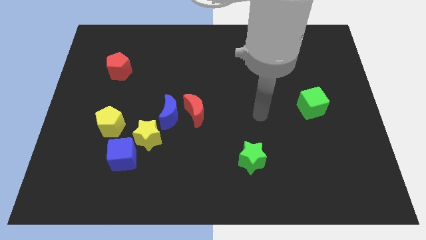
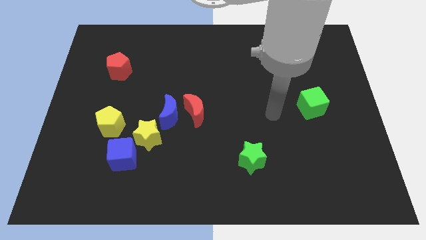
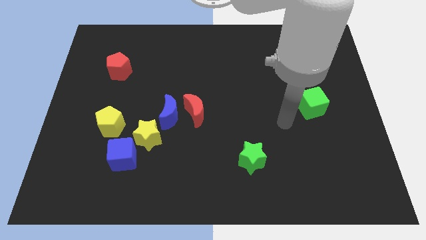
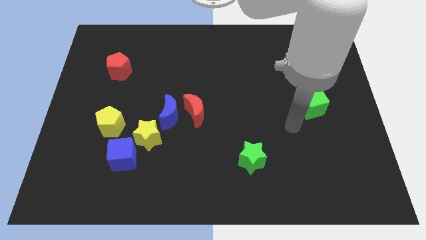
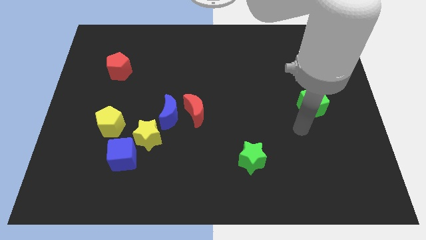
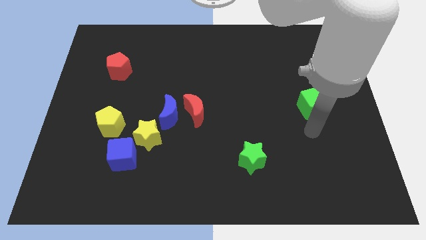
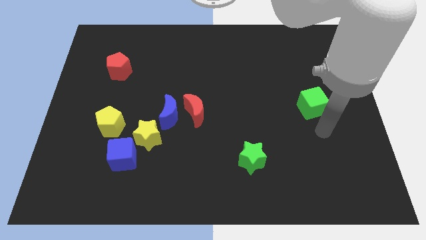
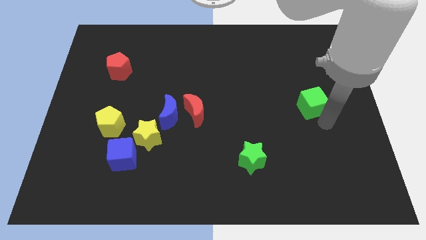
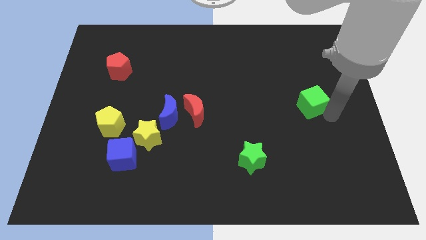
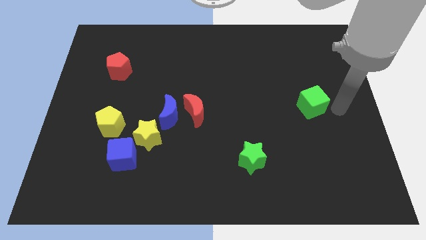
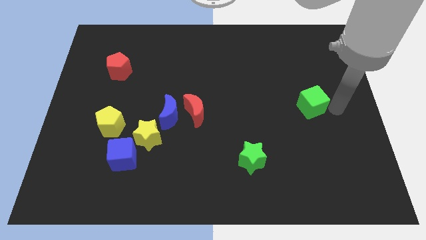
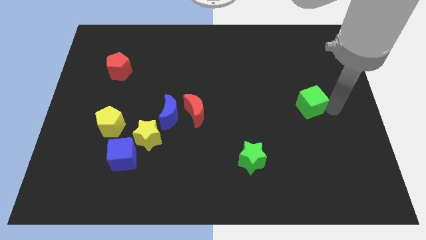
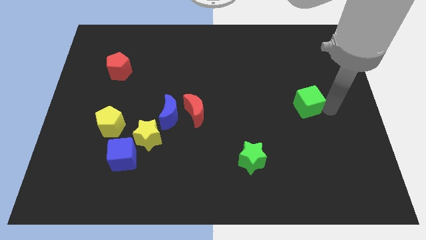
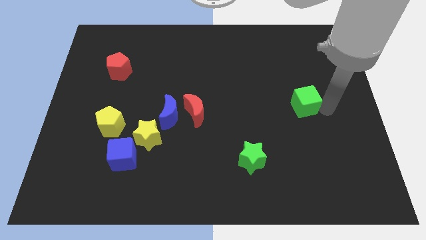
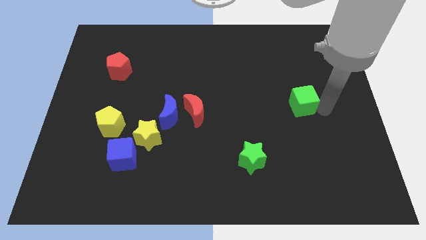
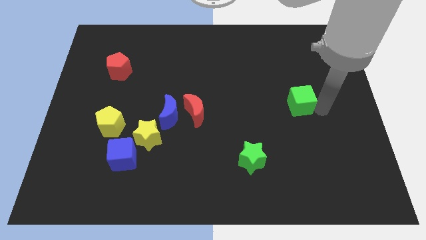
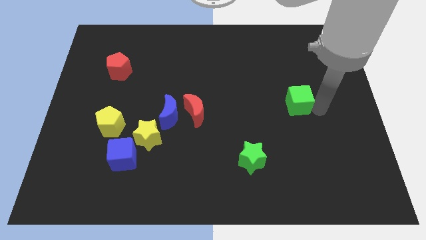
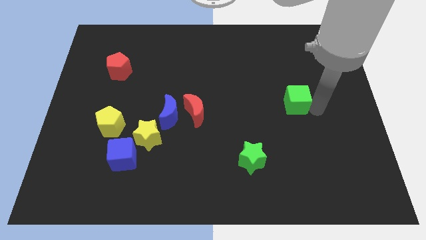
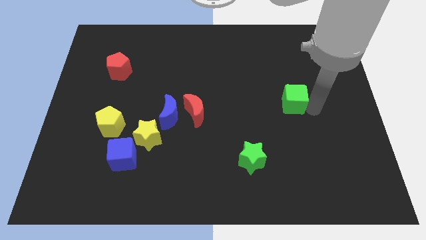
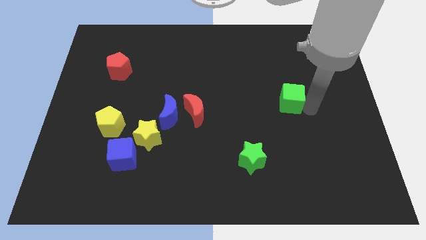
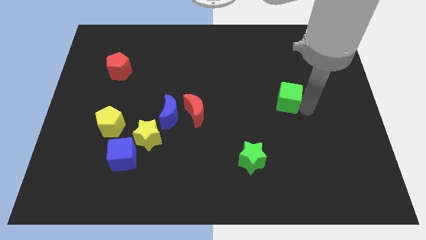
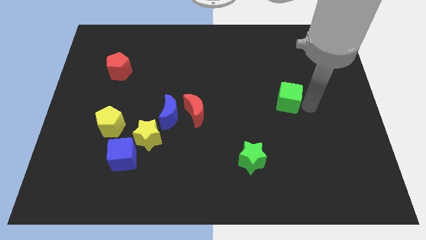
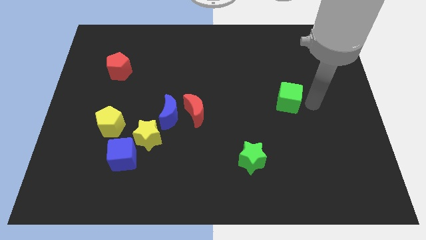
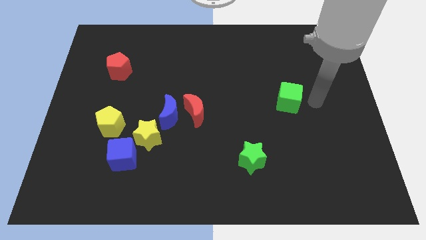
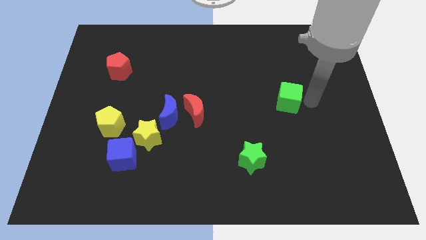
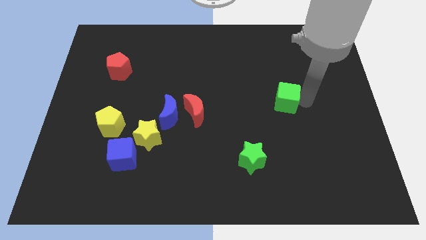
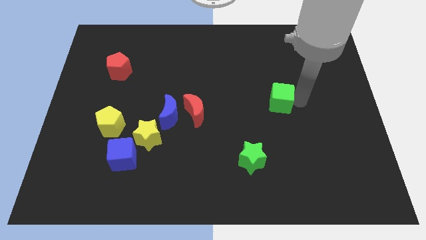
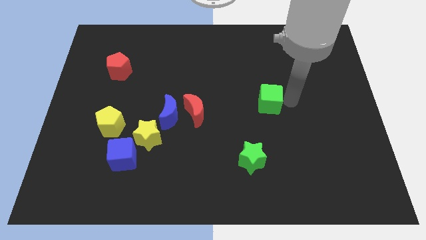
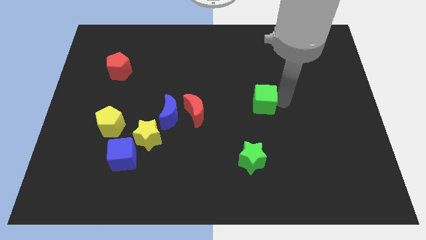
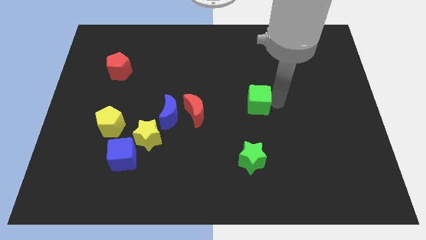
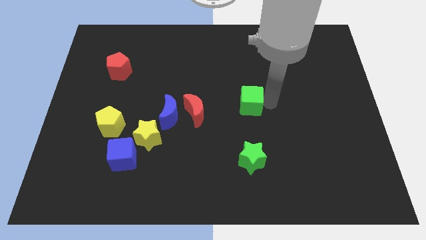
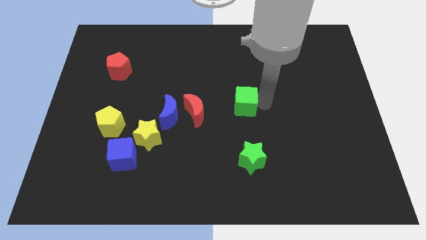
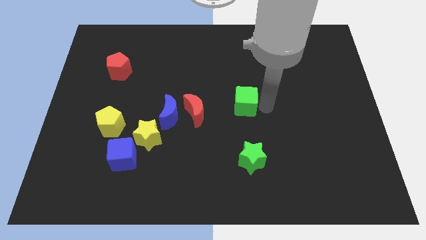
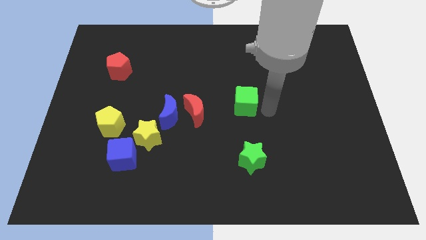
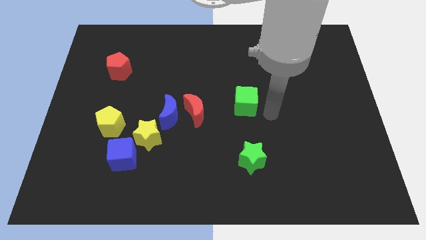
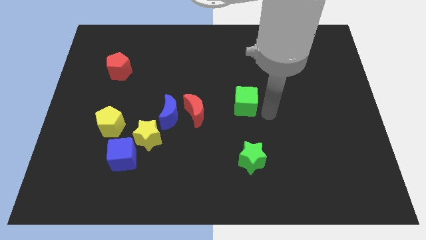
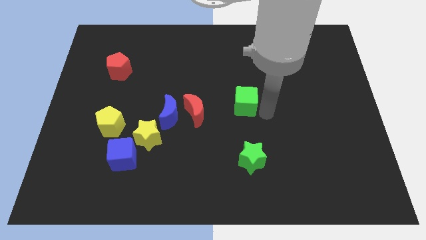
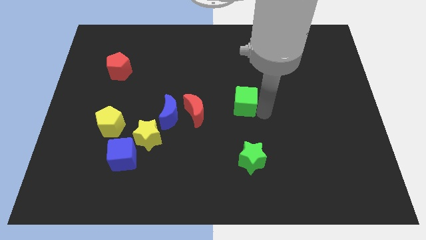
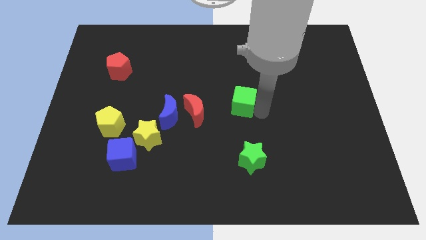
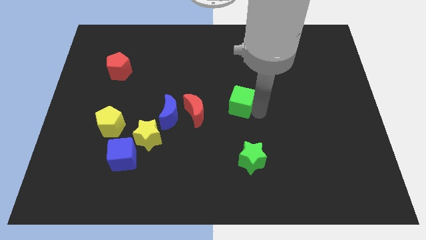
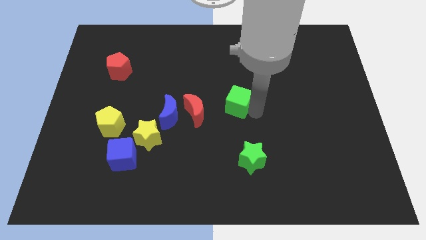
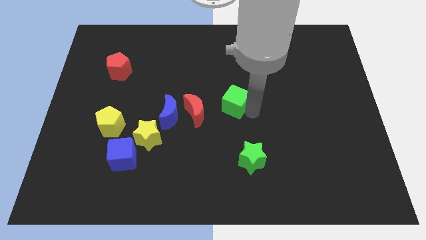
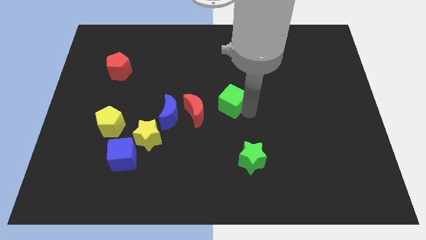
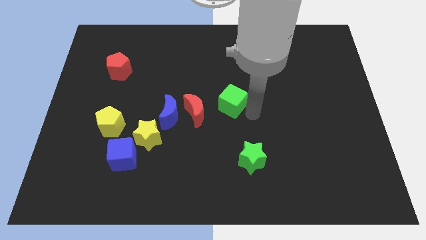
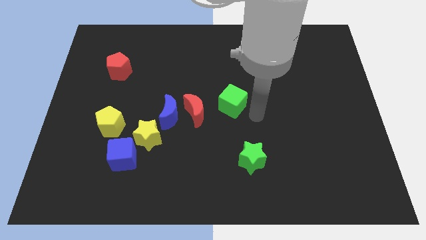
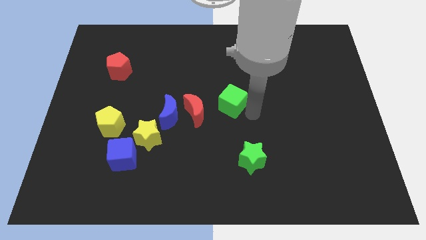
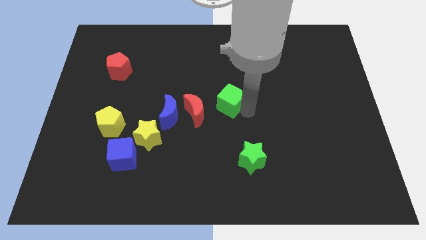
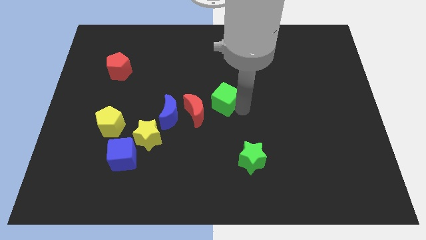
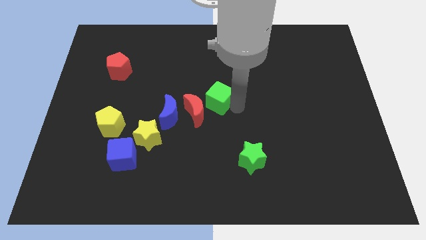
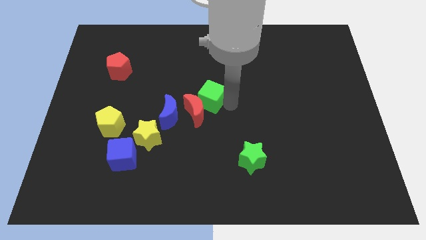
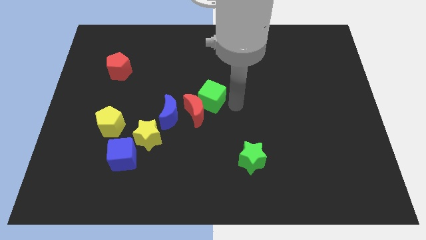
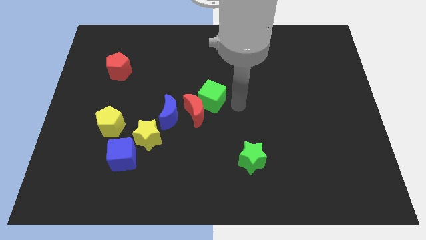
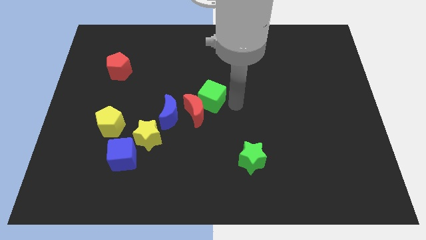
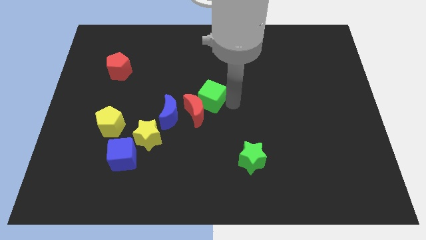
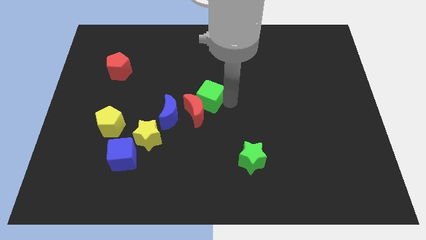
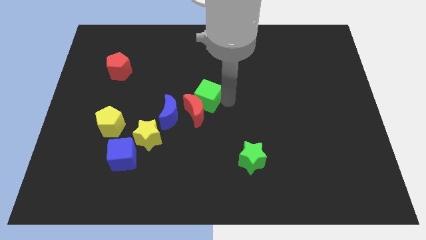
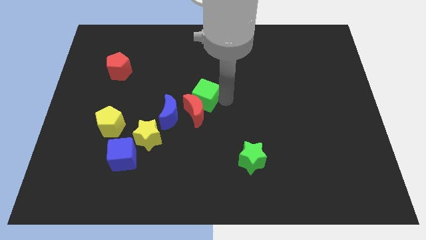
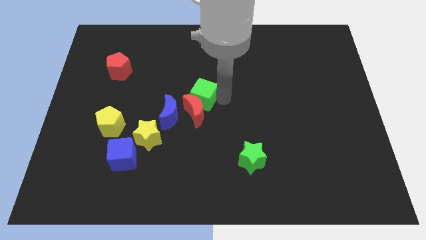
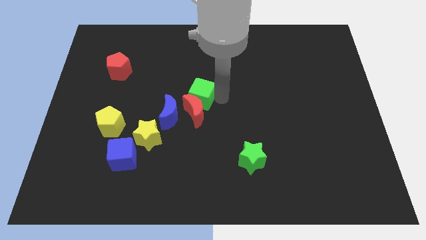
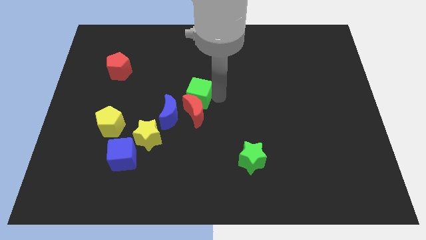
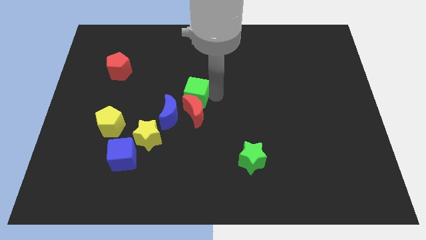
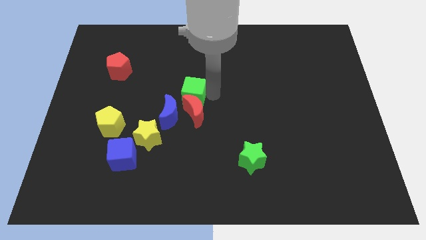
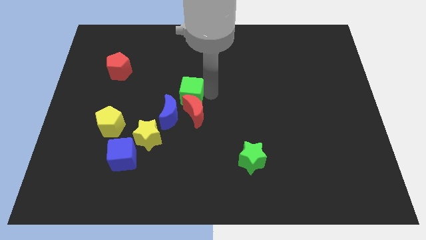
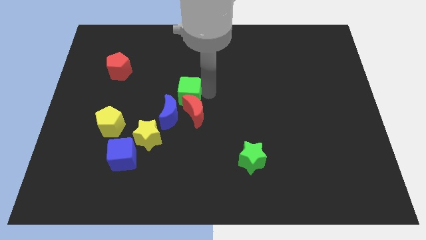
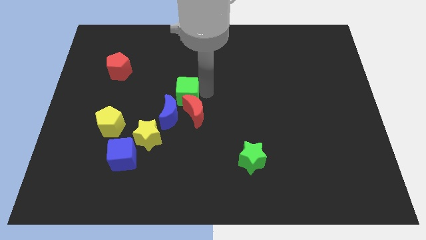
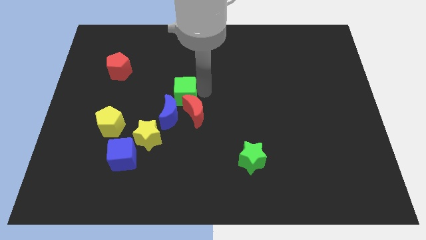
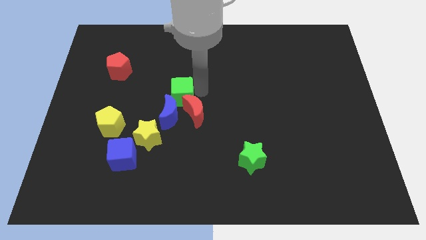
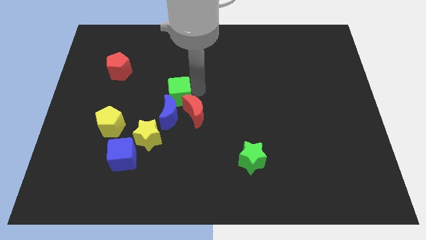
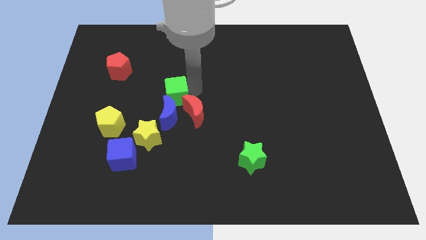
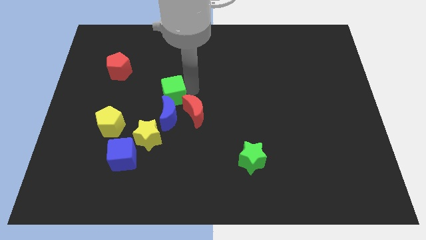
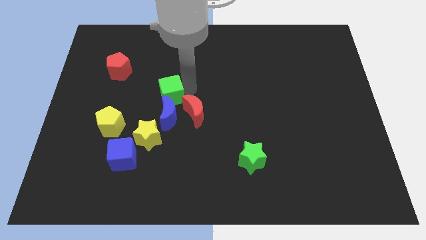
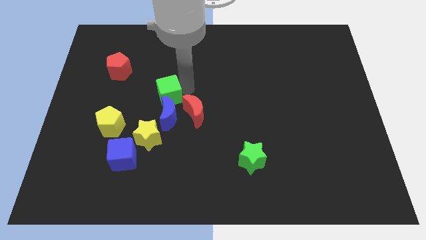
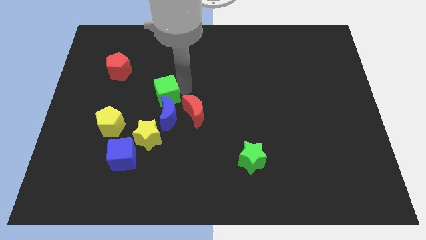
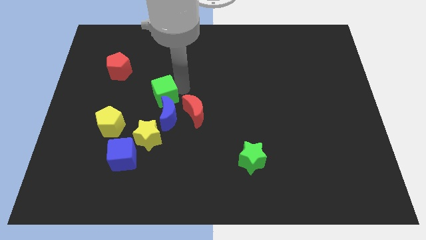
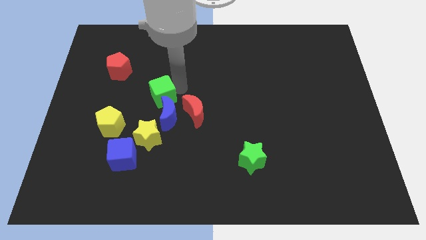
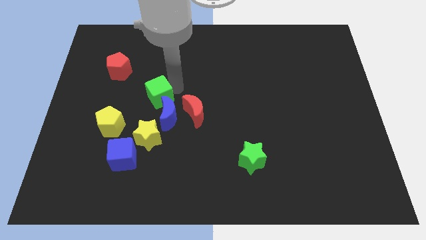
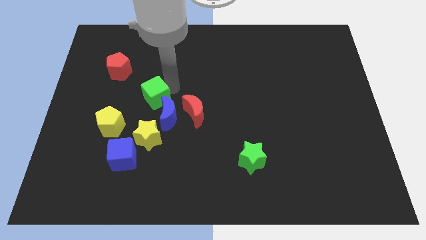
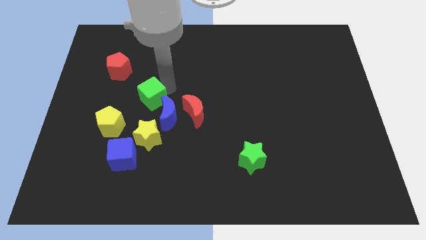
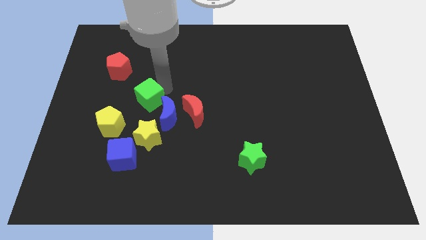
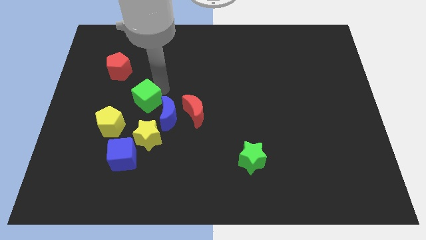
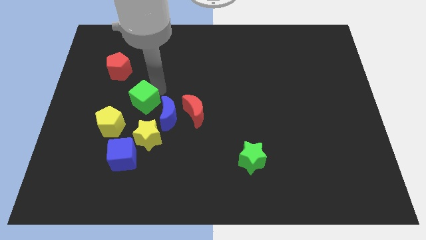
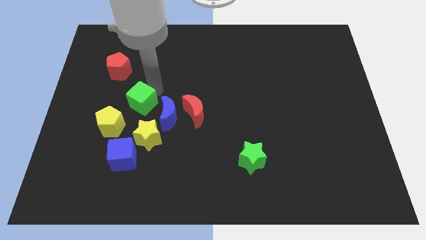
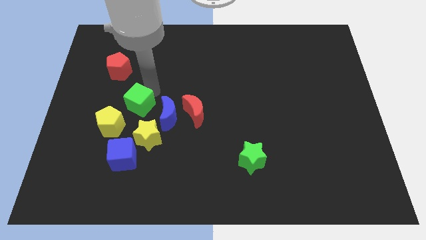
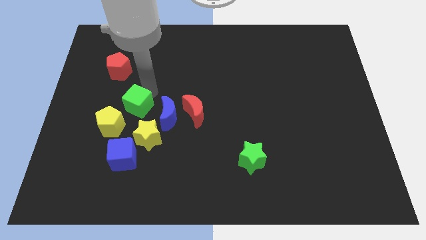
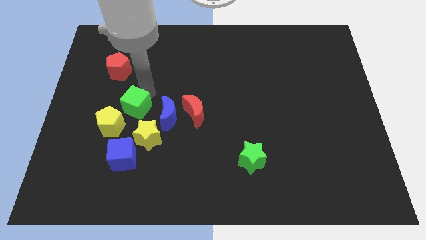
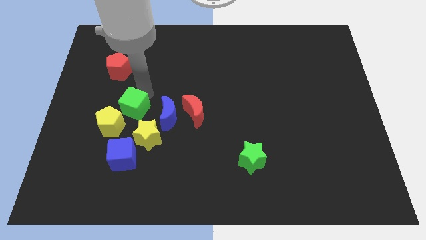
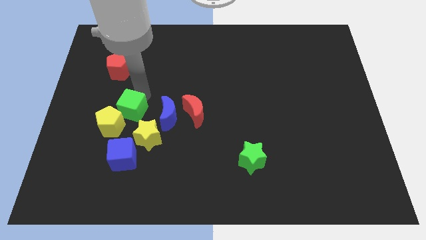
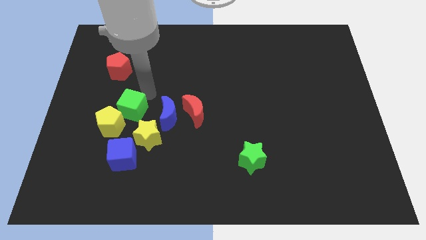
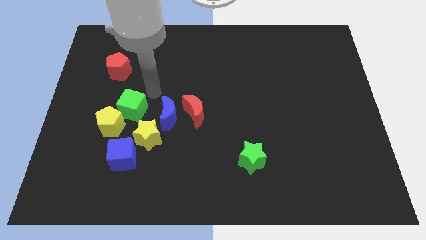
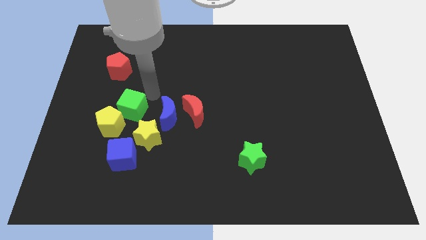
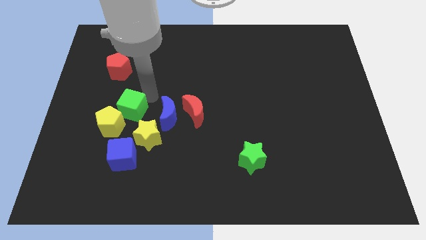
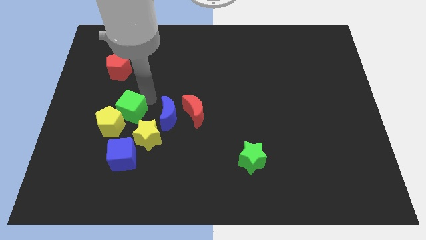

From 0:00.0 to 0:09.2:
slide the green cube close to the yellow pentagon
